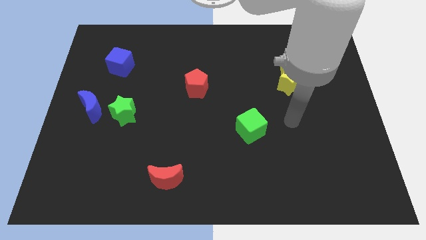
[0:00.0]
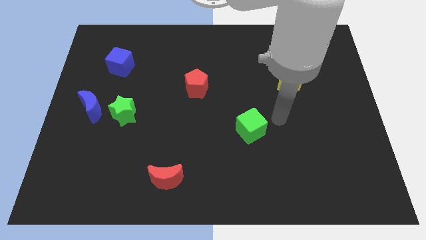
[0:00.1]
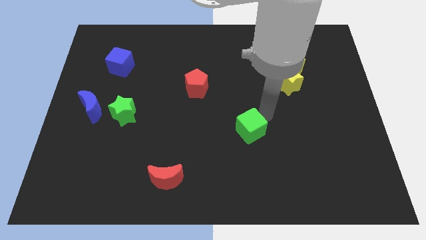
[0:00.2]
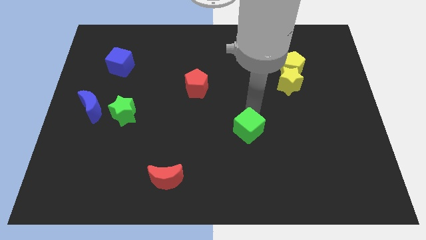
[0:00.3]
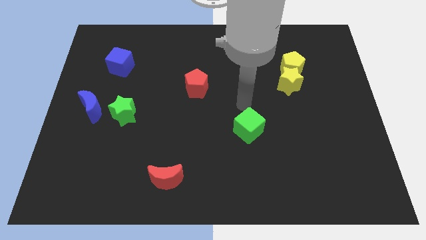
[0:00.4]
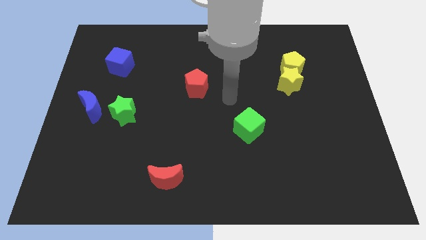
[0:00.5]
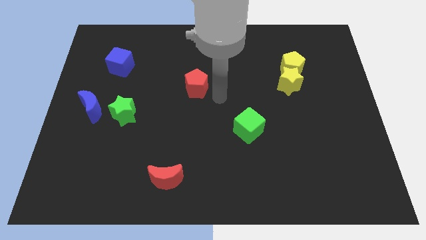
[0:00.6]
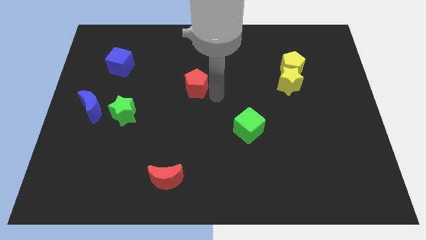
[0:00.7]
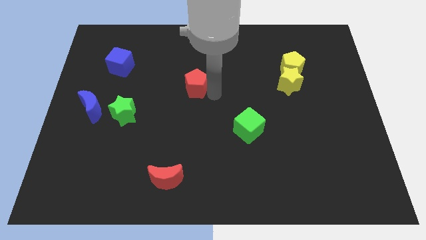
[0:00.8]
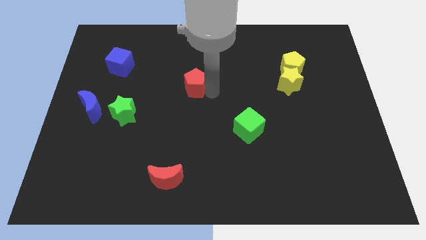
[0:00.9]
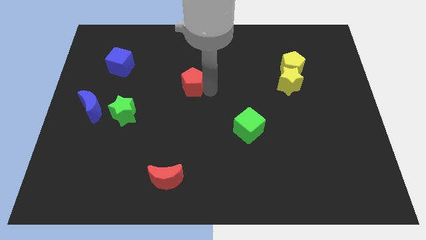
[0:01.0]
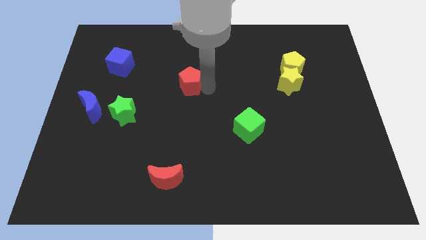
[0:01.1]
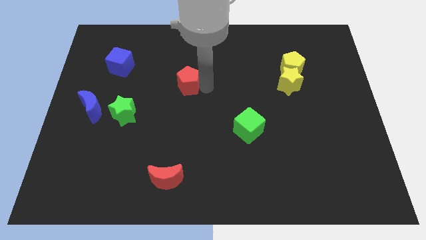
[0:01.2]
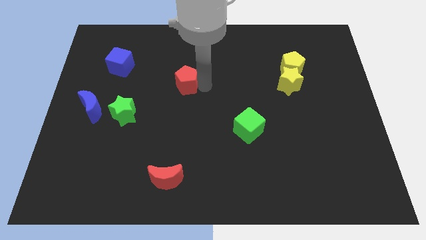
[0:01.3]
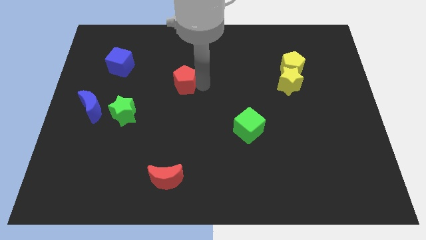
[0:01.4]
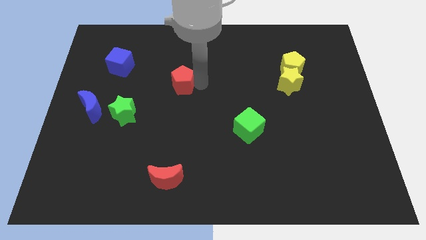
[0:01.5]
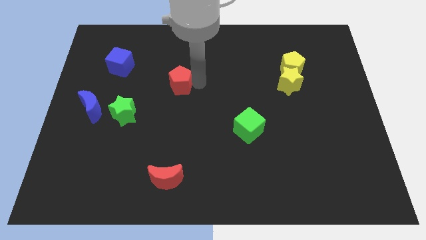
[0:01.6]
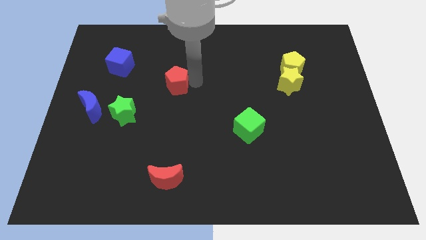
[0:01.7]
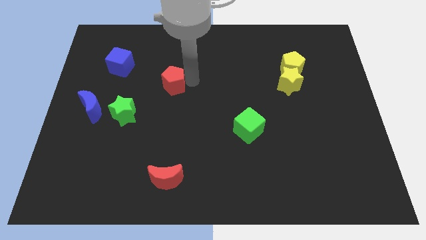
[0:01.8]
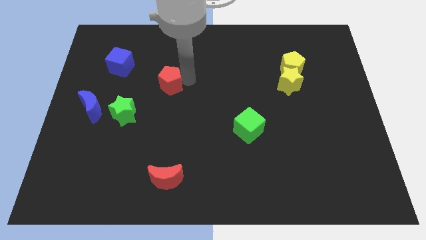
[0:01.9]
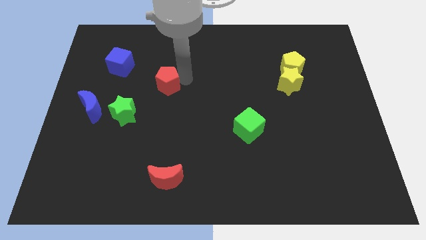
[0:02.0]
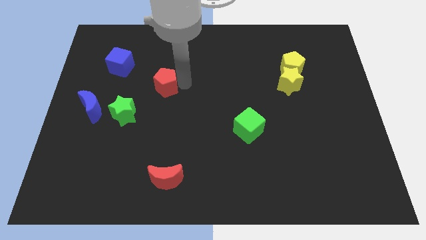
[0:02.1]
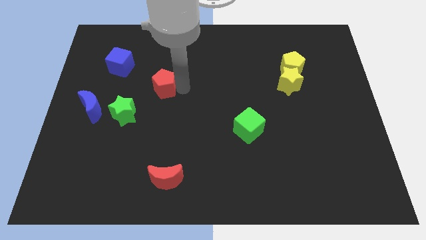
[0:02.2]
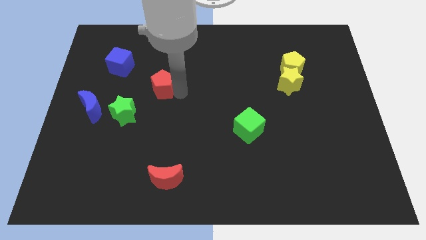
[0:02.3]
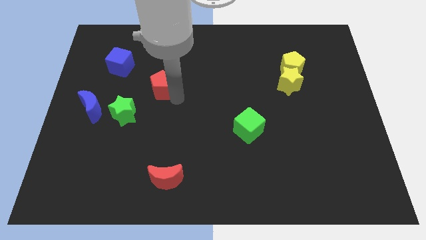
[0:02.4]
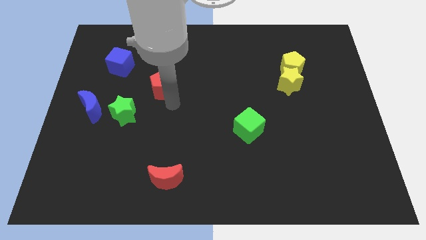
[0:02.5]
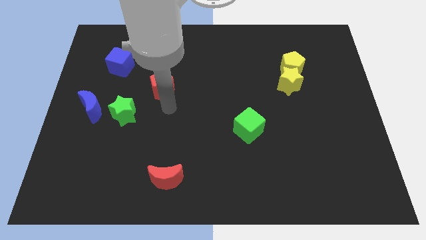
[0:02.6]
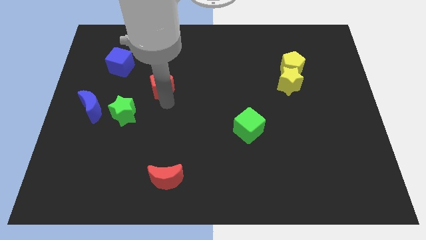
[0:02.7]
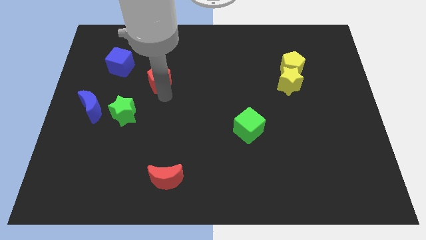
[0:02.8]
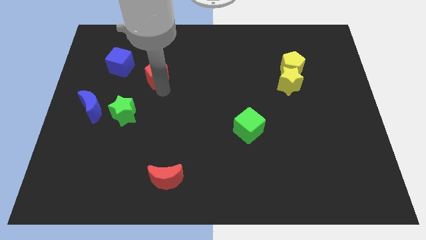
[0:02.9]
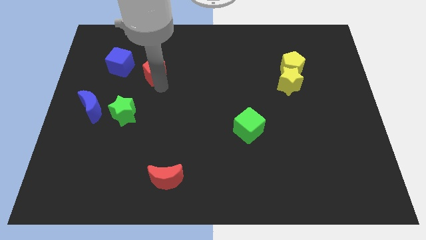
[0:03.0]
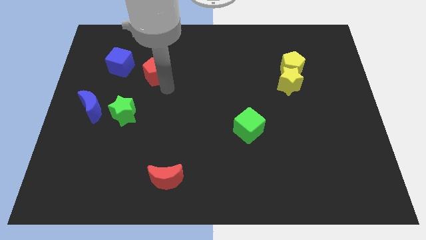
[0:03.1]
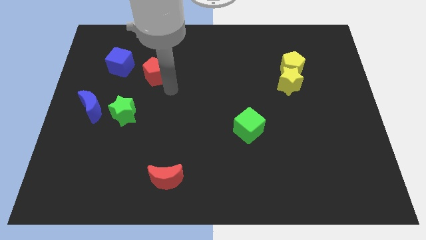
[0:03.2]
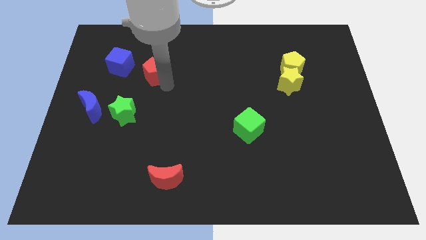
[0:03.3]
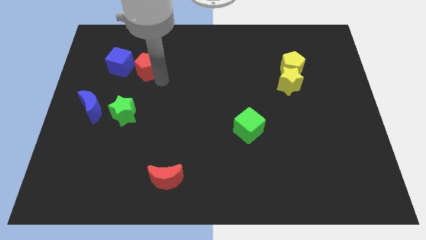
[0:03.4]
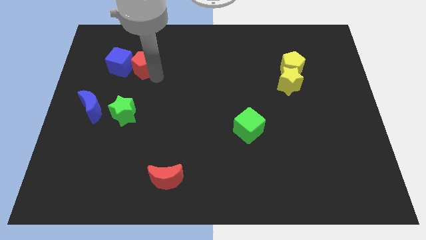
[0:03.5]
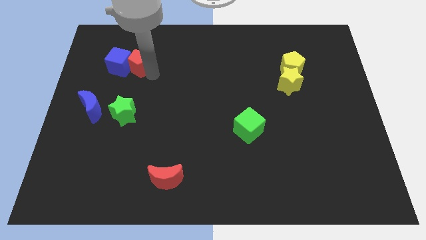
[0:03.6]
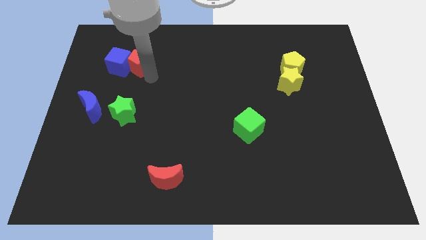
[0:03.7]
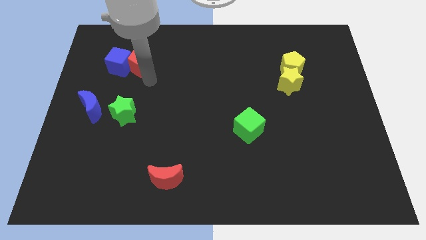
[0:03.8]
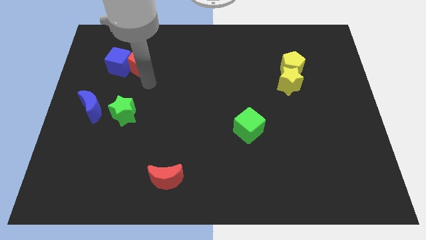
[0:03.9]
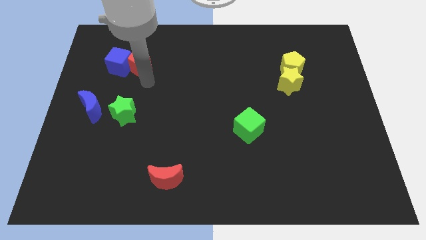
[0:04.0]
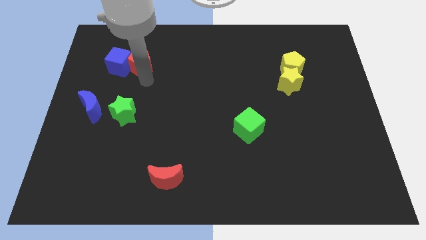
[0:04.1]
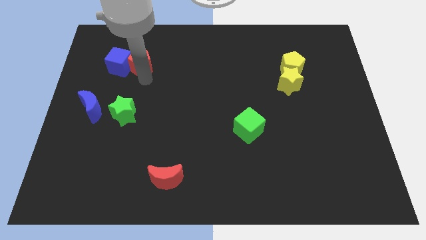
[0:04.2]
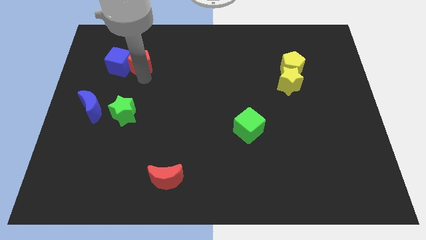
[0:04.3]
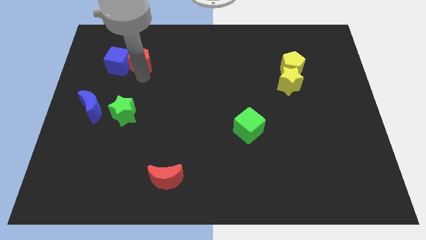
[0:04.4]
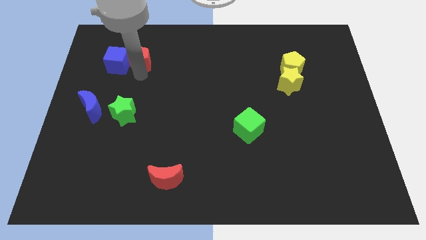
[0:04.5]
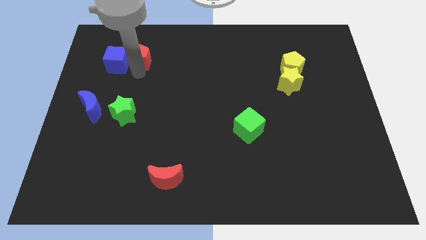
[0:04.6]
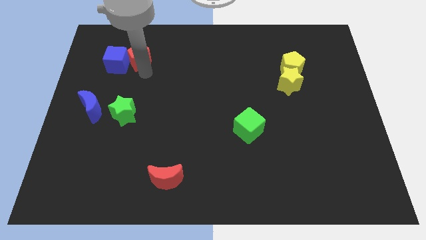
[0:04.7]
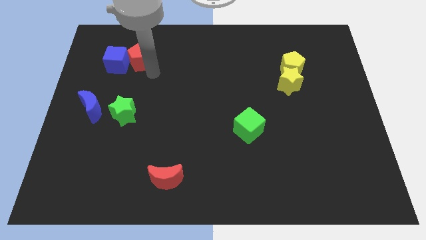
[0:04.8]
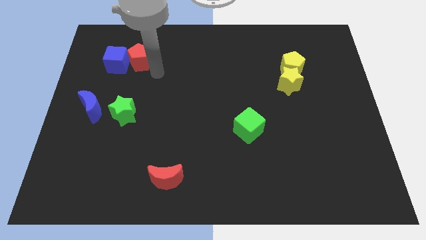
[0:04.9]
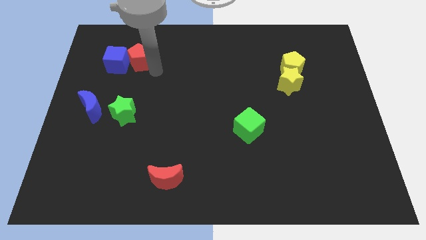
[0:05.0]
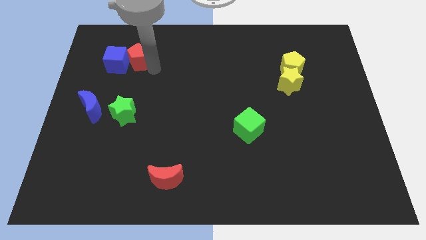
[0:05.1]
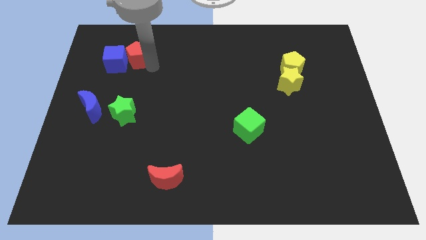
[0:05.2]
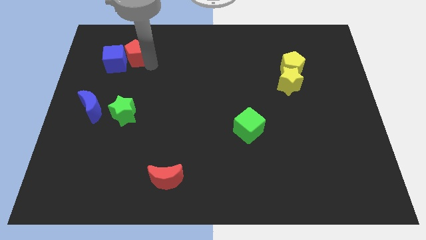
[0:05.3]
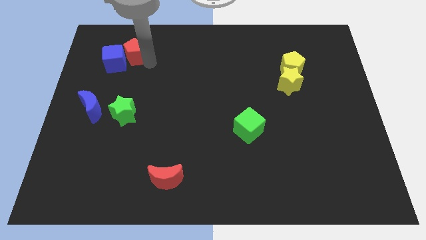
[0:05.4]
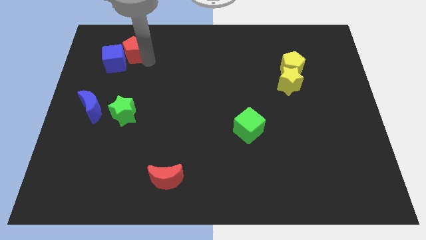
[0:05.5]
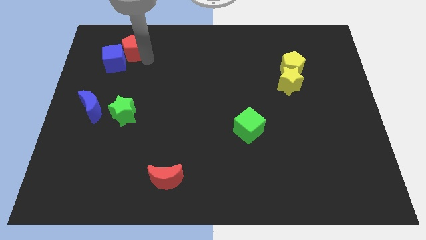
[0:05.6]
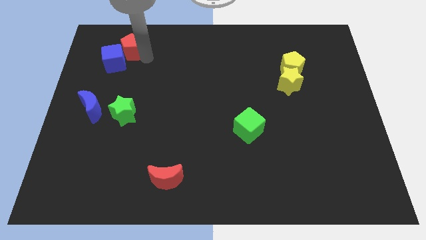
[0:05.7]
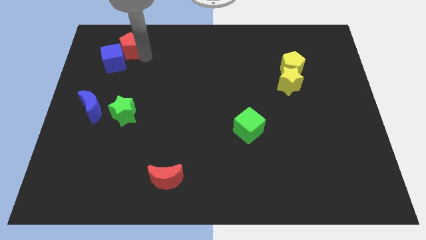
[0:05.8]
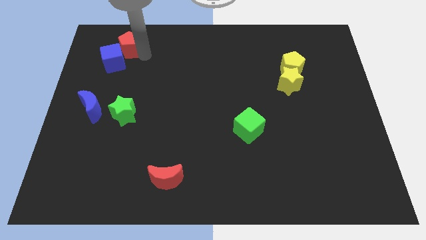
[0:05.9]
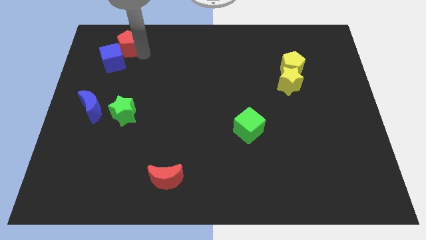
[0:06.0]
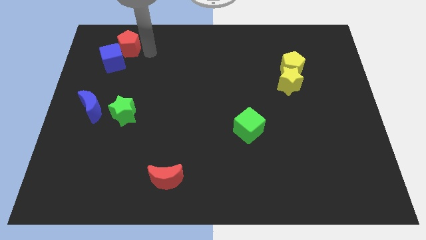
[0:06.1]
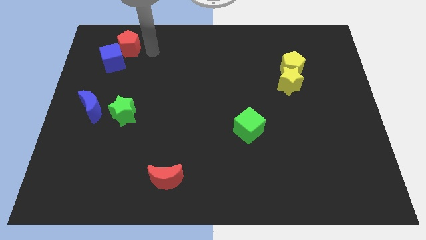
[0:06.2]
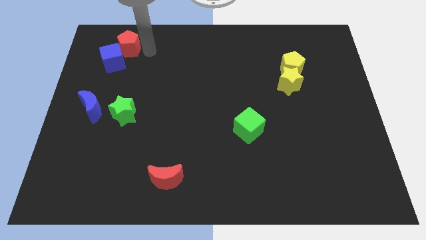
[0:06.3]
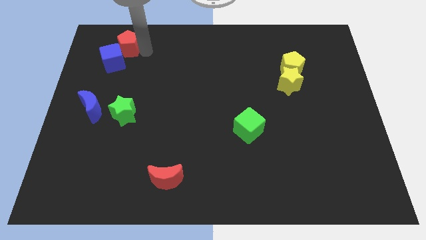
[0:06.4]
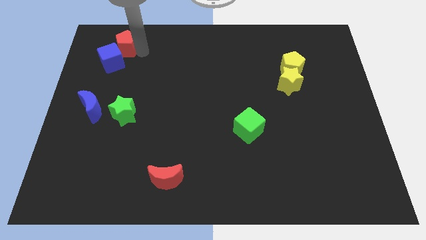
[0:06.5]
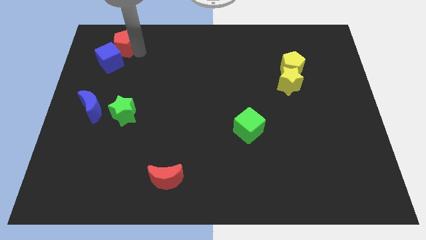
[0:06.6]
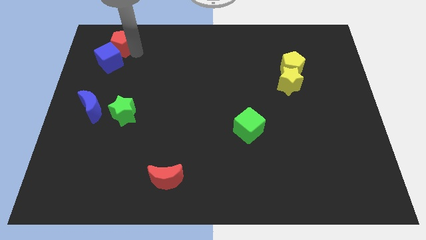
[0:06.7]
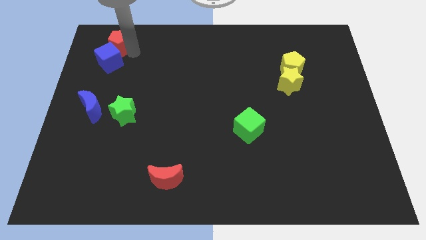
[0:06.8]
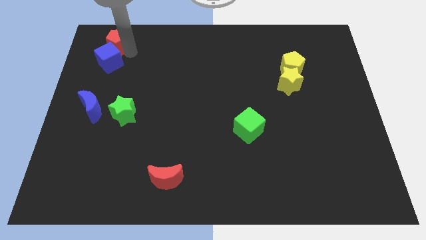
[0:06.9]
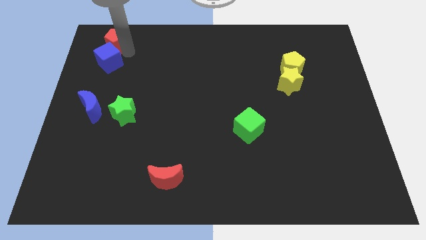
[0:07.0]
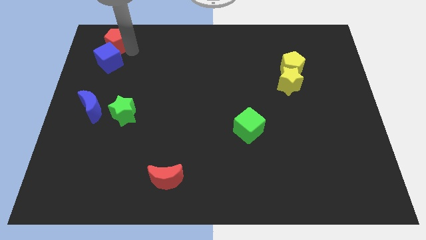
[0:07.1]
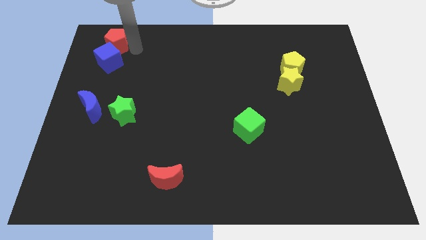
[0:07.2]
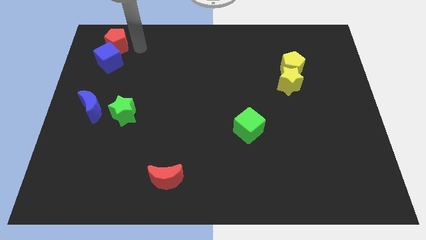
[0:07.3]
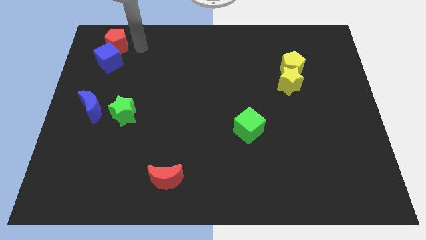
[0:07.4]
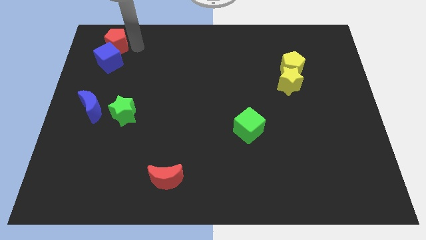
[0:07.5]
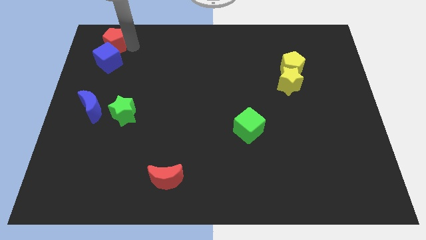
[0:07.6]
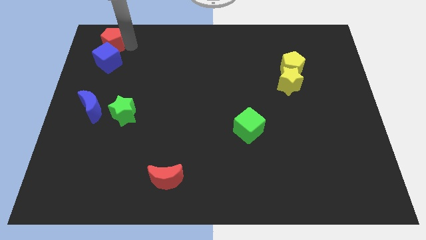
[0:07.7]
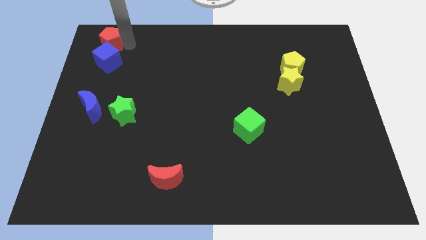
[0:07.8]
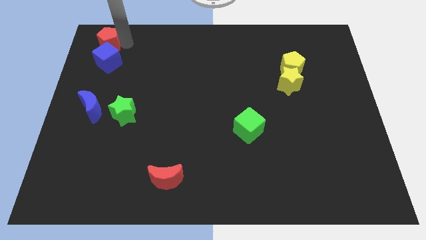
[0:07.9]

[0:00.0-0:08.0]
slide the red pentagon to the top left corner

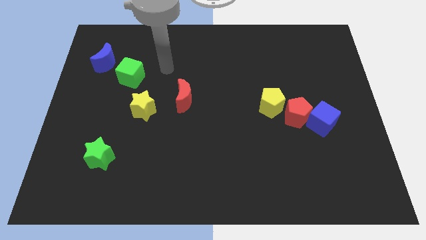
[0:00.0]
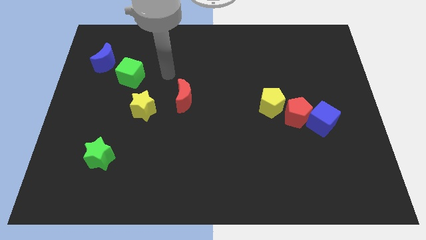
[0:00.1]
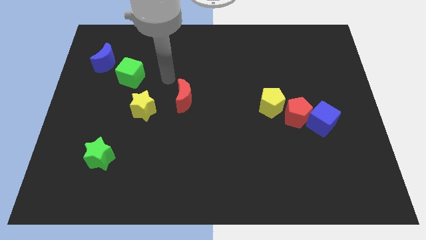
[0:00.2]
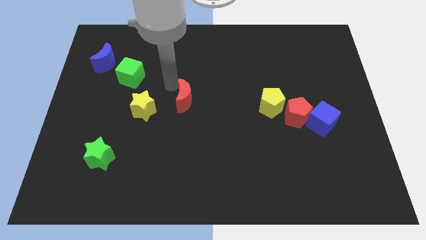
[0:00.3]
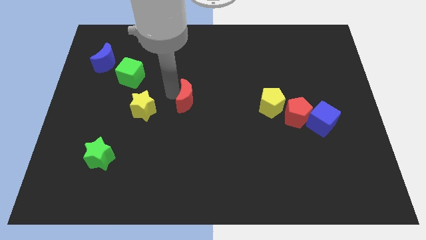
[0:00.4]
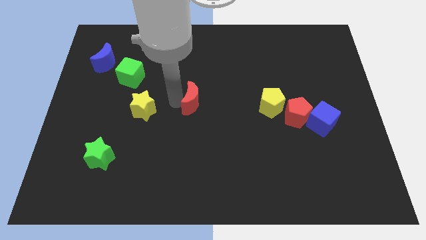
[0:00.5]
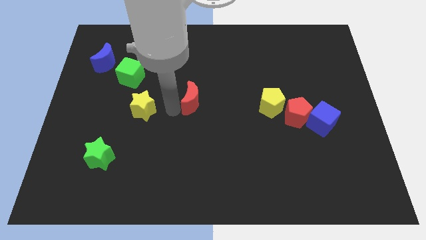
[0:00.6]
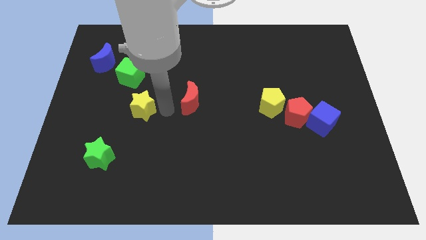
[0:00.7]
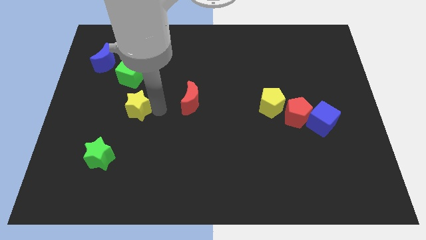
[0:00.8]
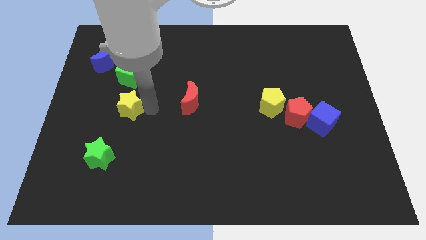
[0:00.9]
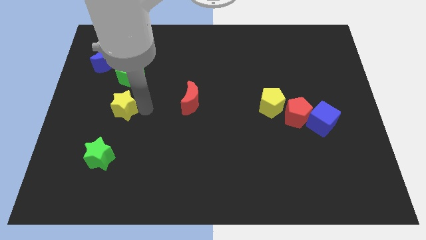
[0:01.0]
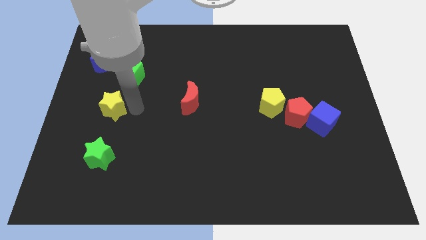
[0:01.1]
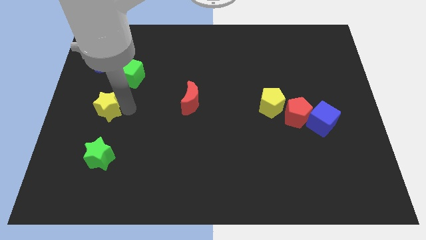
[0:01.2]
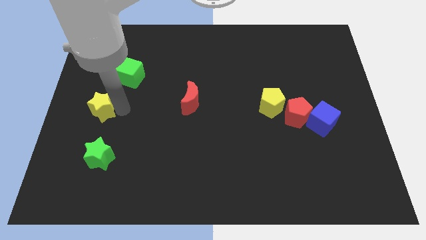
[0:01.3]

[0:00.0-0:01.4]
push the yellow star to the left side
